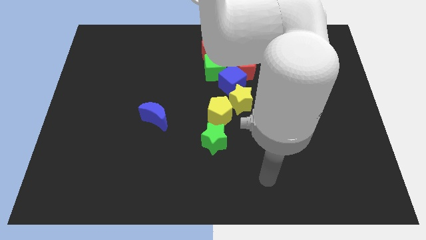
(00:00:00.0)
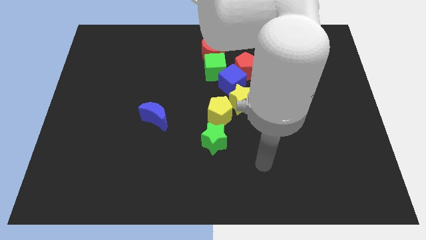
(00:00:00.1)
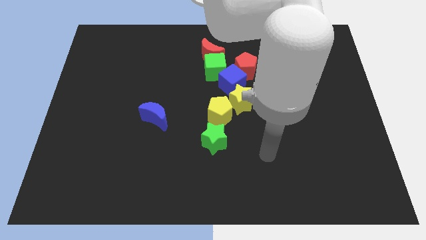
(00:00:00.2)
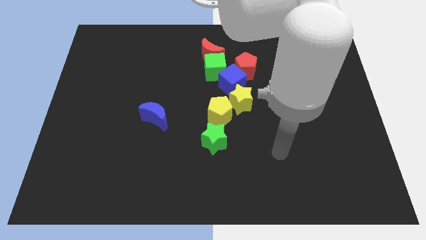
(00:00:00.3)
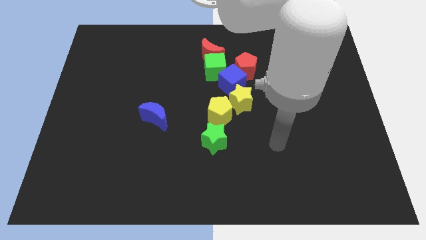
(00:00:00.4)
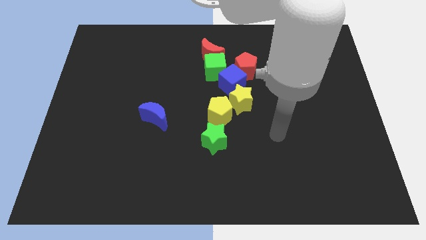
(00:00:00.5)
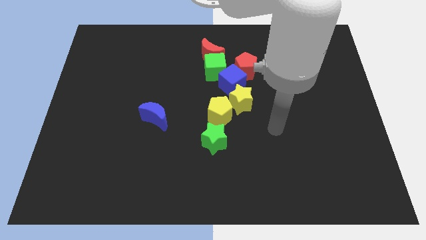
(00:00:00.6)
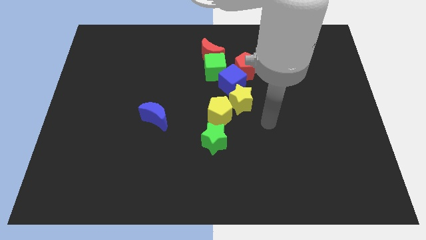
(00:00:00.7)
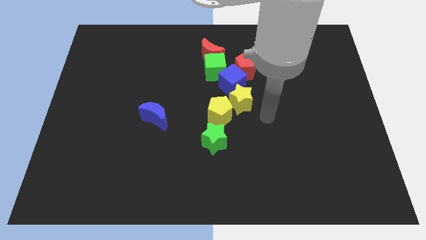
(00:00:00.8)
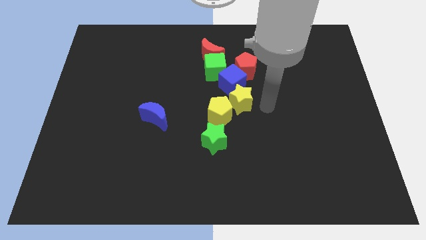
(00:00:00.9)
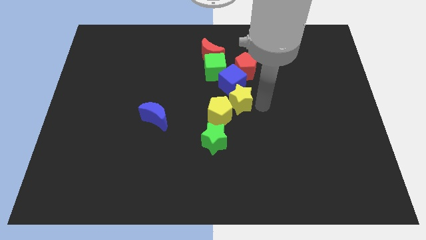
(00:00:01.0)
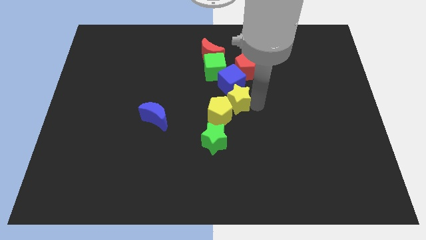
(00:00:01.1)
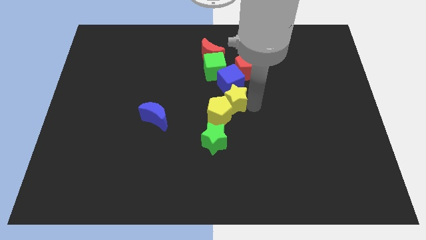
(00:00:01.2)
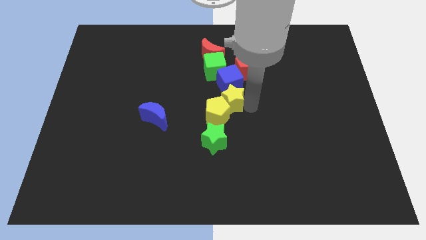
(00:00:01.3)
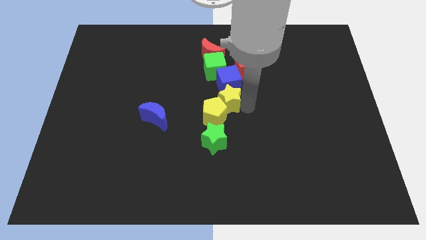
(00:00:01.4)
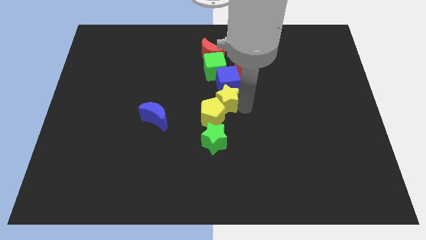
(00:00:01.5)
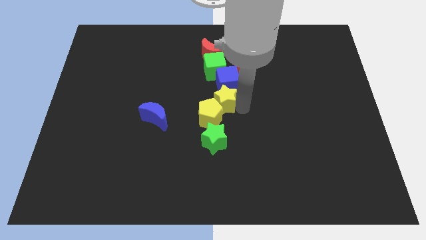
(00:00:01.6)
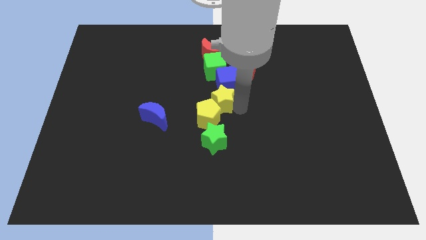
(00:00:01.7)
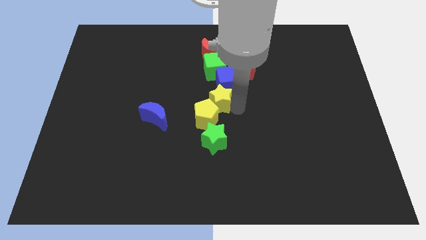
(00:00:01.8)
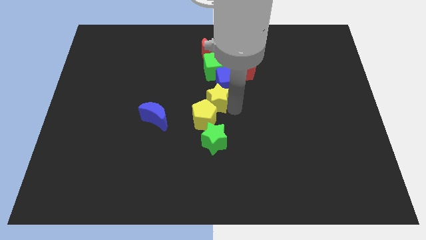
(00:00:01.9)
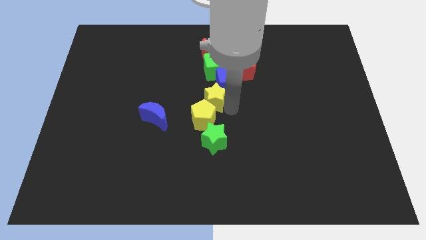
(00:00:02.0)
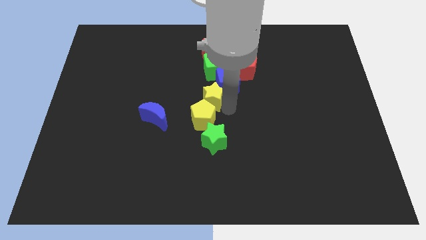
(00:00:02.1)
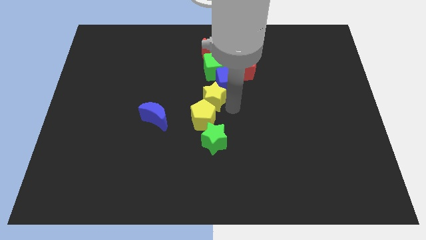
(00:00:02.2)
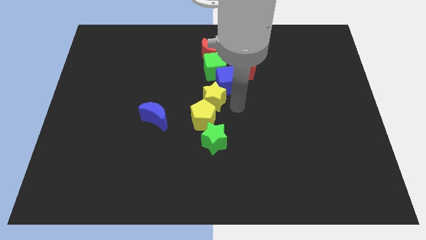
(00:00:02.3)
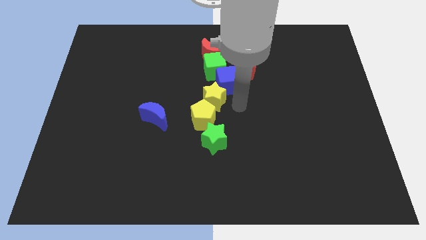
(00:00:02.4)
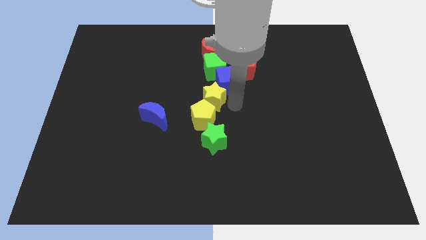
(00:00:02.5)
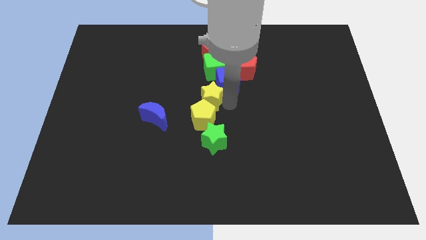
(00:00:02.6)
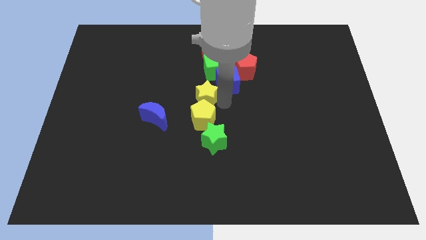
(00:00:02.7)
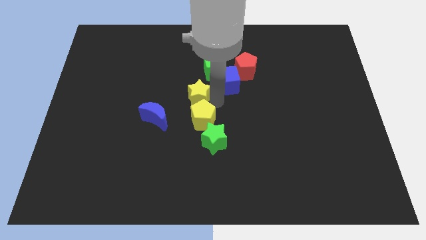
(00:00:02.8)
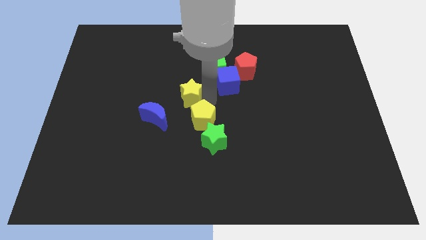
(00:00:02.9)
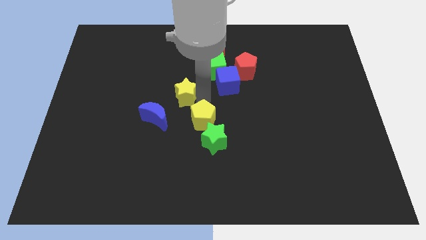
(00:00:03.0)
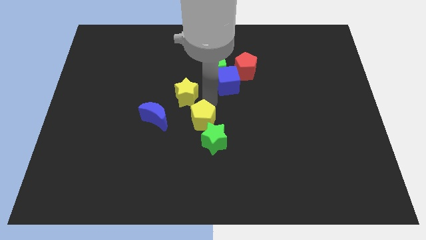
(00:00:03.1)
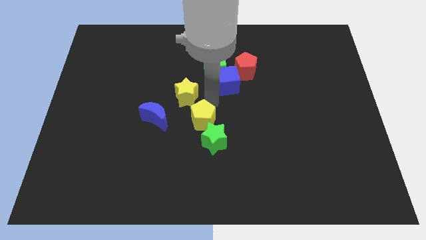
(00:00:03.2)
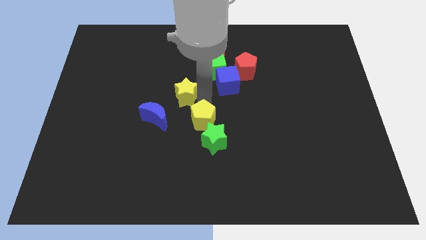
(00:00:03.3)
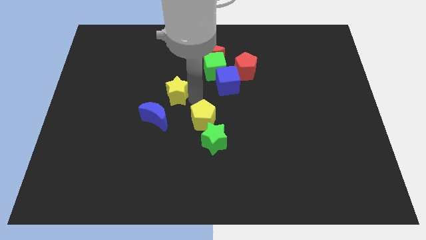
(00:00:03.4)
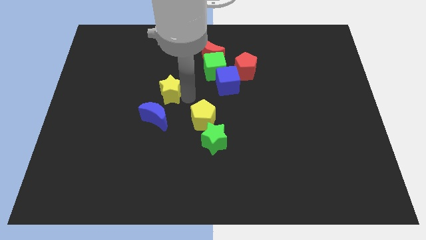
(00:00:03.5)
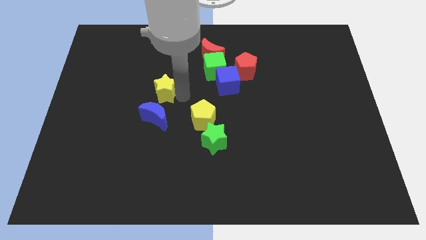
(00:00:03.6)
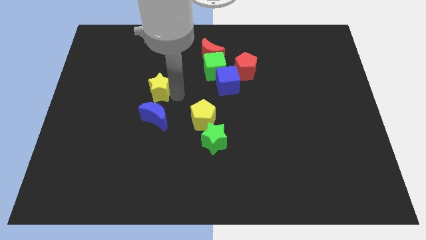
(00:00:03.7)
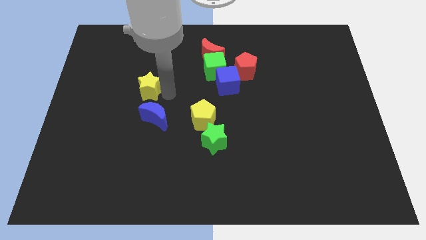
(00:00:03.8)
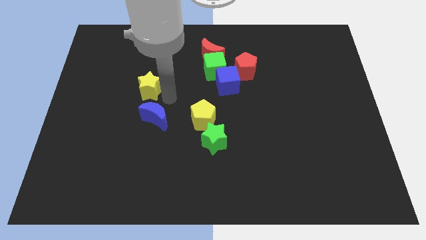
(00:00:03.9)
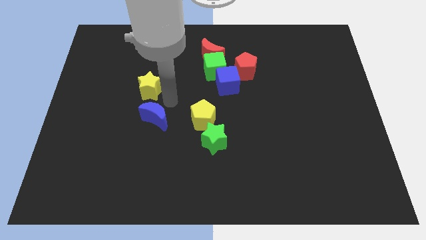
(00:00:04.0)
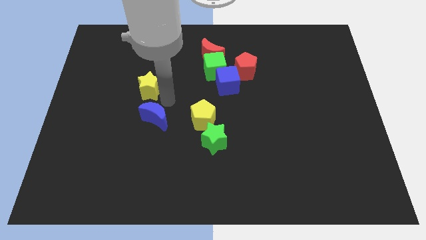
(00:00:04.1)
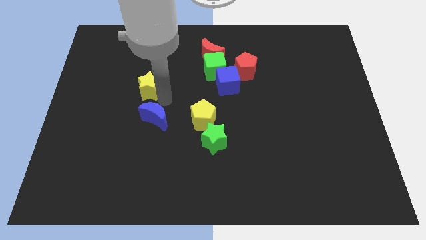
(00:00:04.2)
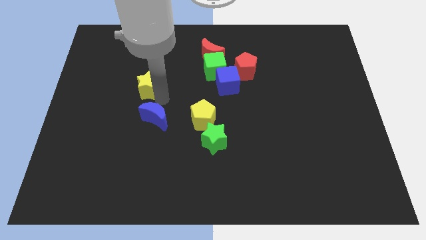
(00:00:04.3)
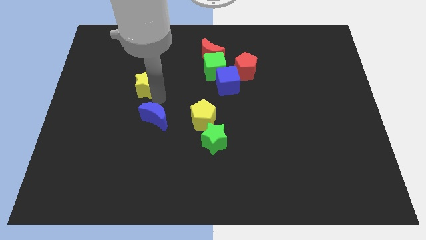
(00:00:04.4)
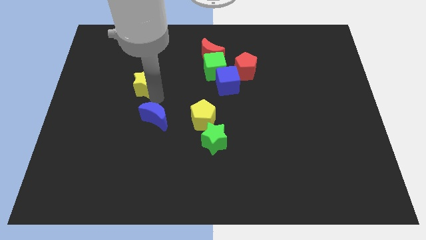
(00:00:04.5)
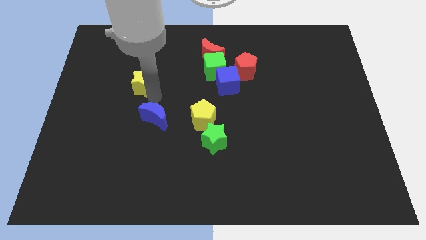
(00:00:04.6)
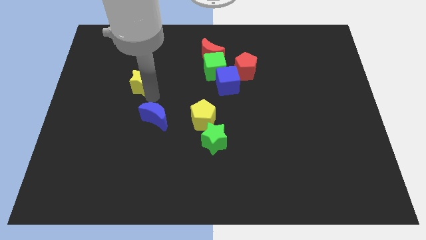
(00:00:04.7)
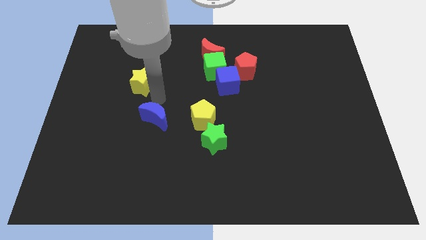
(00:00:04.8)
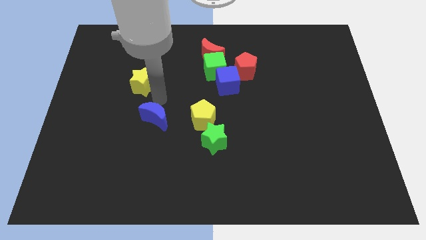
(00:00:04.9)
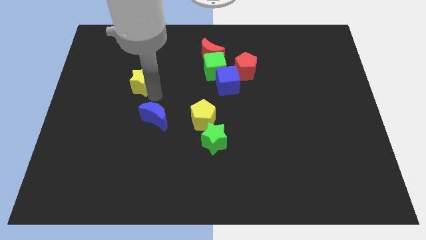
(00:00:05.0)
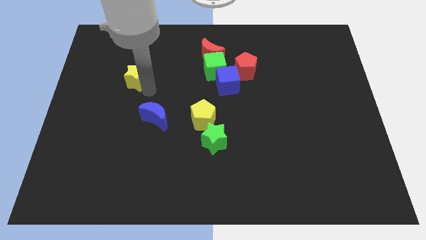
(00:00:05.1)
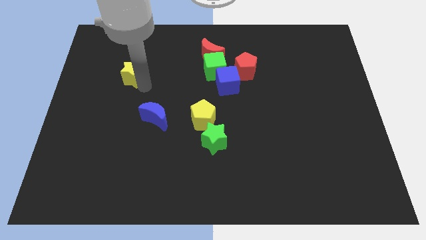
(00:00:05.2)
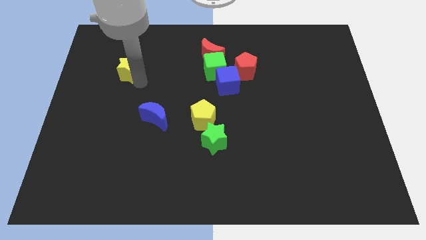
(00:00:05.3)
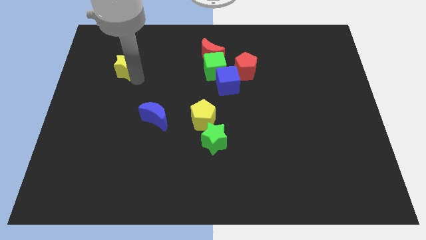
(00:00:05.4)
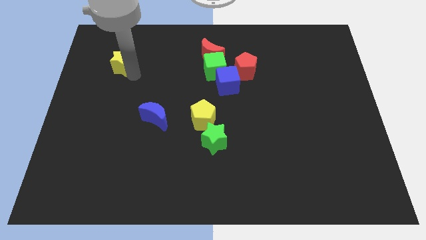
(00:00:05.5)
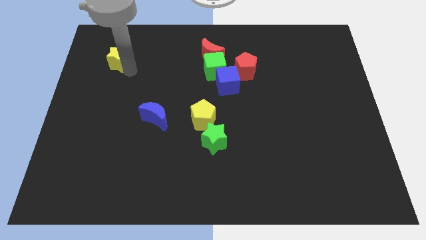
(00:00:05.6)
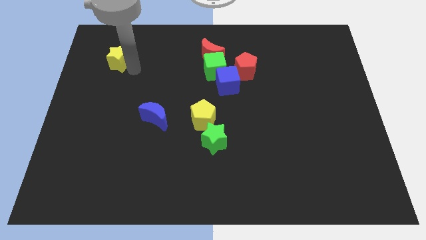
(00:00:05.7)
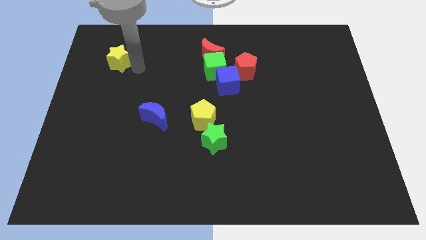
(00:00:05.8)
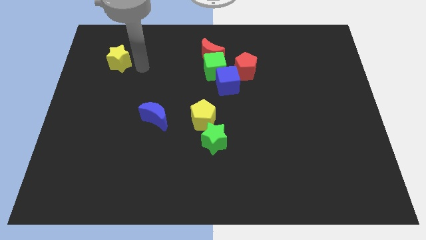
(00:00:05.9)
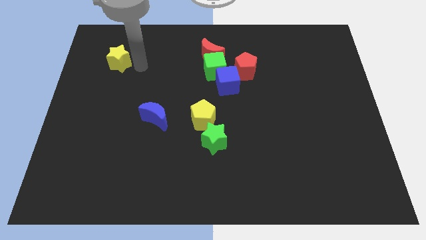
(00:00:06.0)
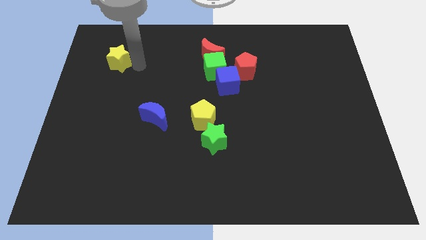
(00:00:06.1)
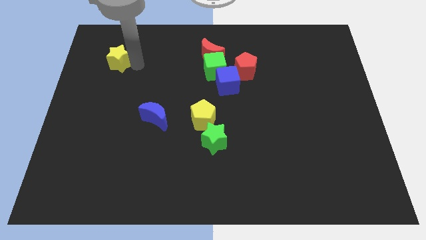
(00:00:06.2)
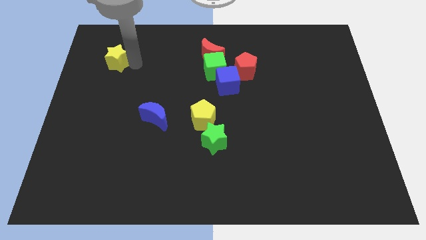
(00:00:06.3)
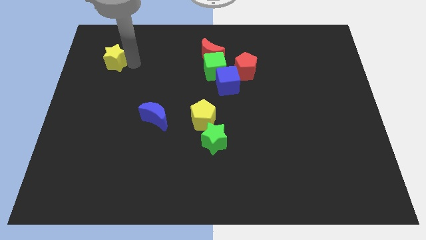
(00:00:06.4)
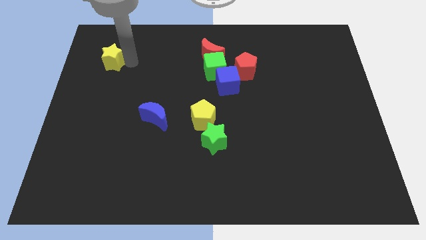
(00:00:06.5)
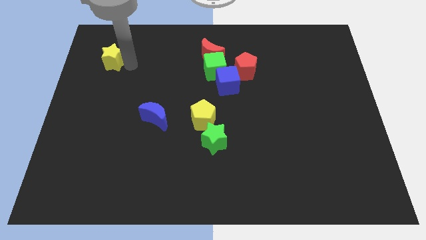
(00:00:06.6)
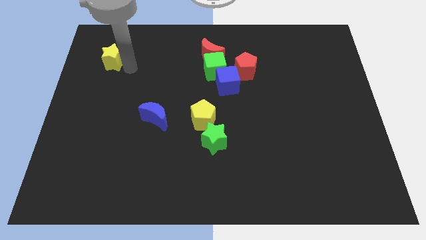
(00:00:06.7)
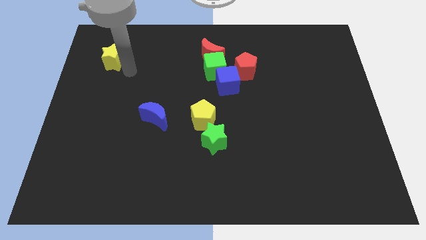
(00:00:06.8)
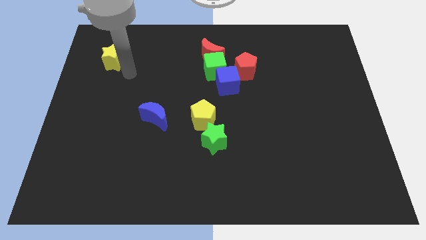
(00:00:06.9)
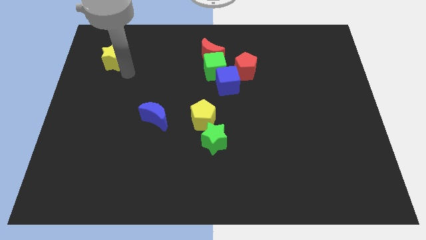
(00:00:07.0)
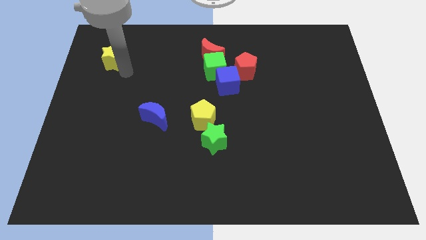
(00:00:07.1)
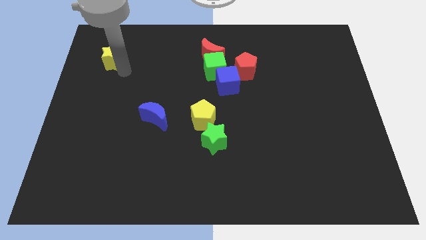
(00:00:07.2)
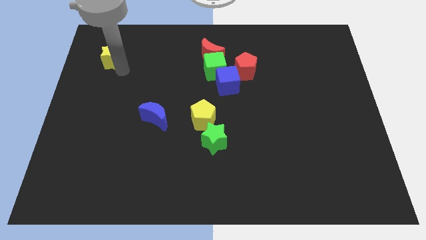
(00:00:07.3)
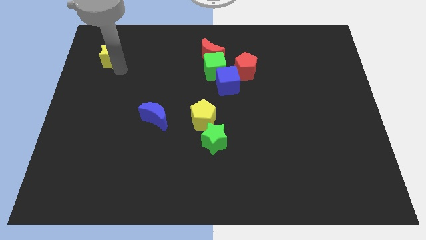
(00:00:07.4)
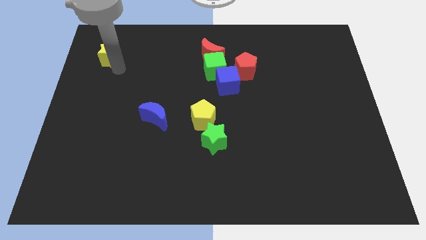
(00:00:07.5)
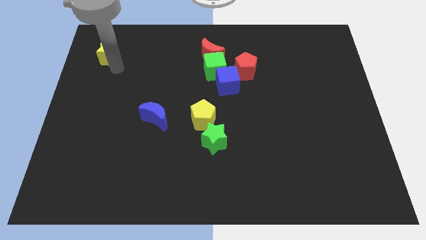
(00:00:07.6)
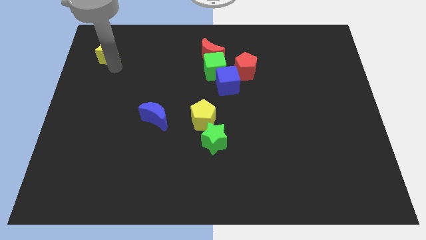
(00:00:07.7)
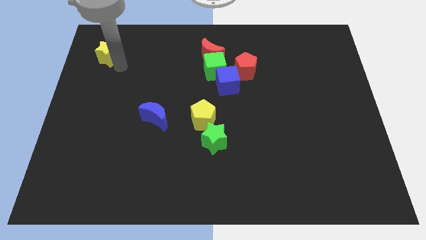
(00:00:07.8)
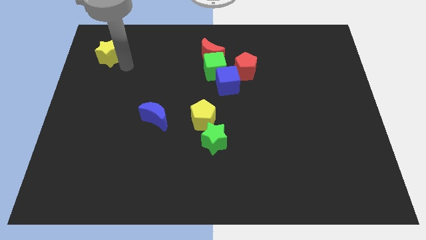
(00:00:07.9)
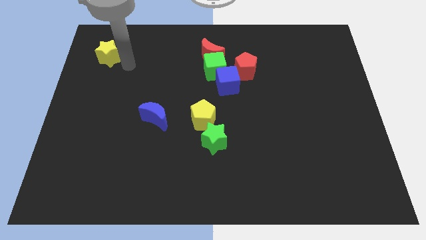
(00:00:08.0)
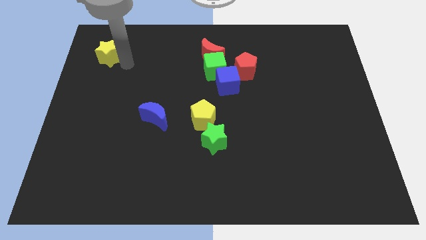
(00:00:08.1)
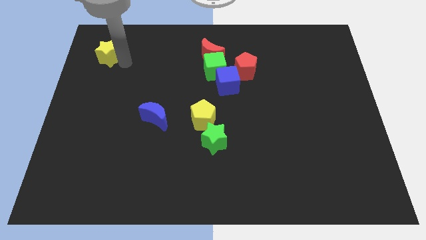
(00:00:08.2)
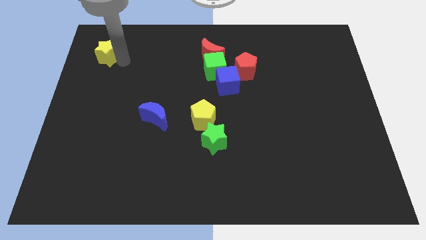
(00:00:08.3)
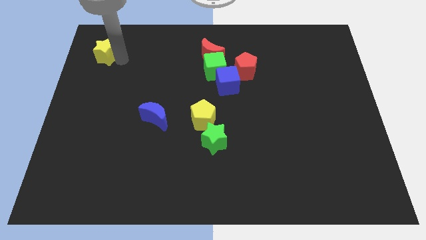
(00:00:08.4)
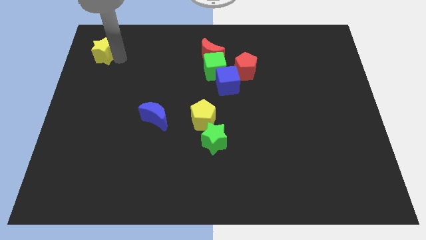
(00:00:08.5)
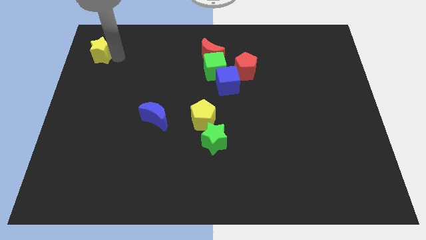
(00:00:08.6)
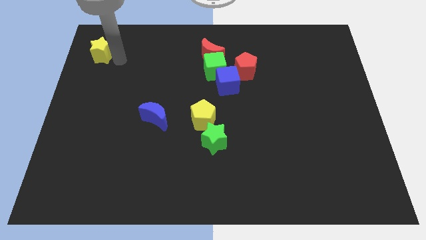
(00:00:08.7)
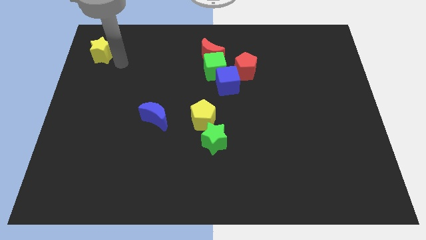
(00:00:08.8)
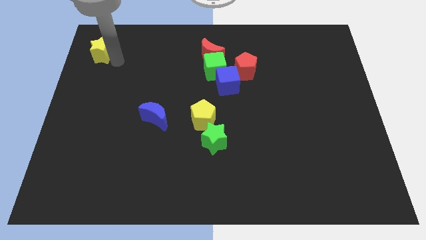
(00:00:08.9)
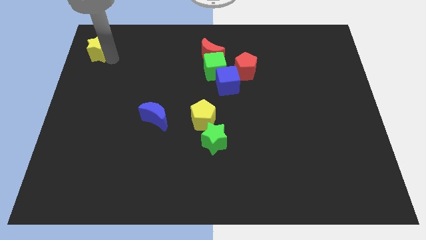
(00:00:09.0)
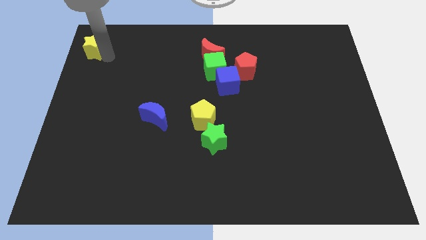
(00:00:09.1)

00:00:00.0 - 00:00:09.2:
slide the yellow star to the top left corner
